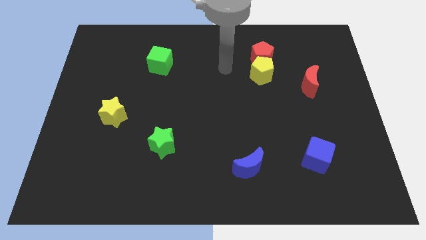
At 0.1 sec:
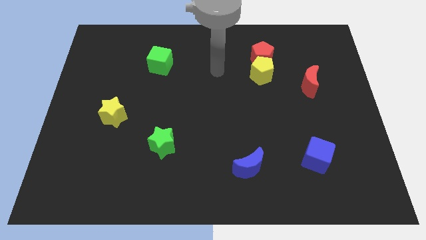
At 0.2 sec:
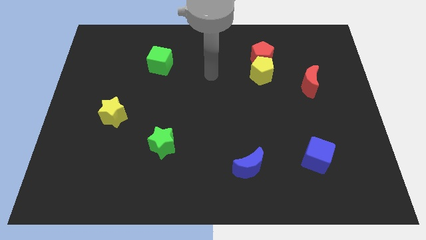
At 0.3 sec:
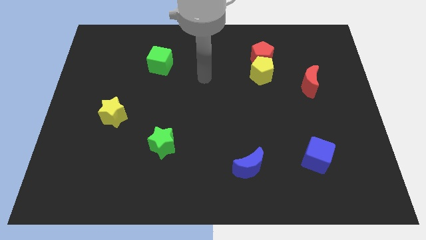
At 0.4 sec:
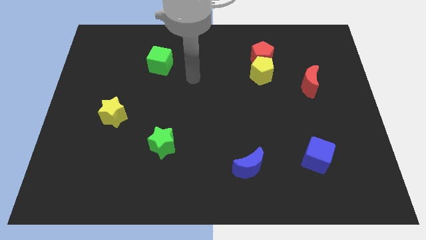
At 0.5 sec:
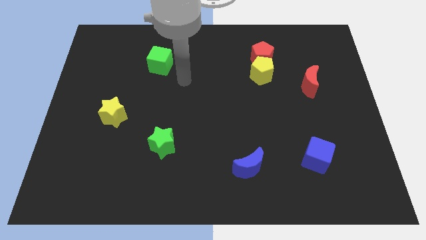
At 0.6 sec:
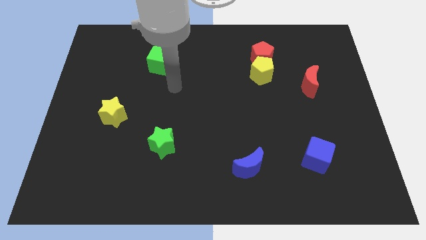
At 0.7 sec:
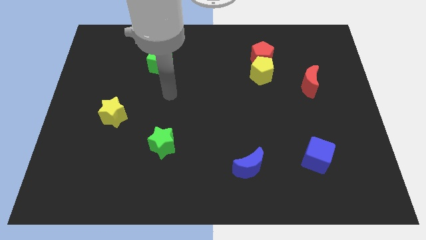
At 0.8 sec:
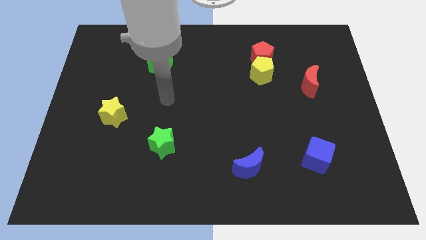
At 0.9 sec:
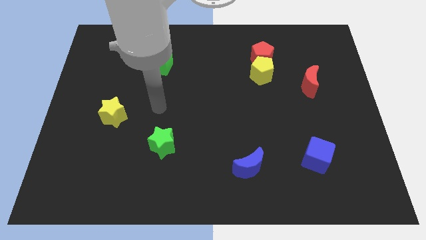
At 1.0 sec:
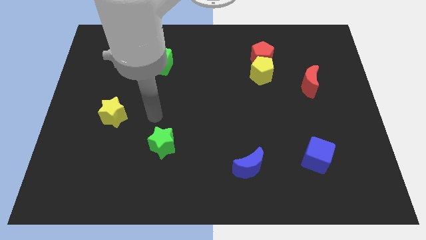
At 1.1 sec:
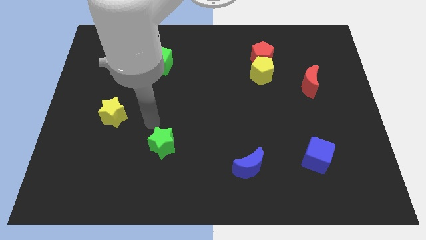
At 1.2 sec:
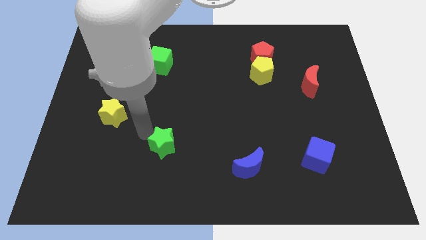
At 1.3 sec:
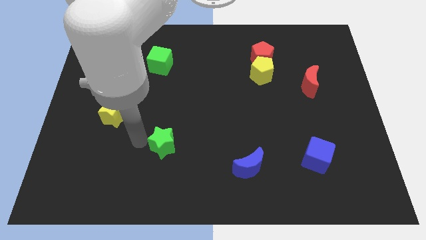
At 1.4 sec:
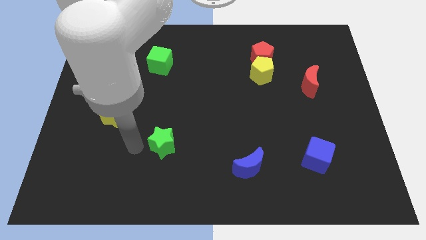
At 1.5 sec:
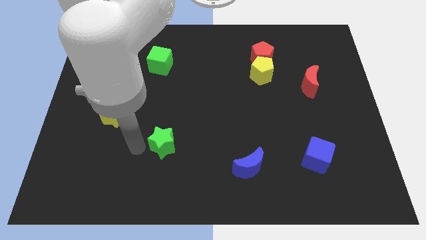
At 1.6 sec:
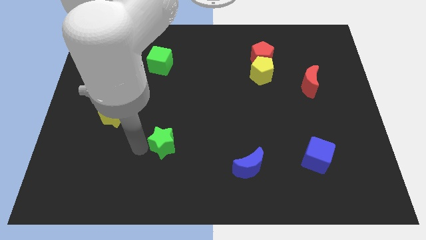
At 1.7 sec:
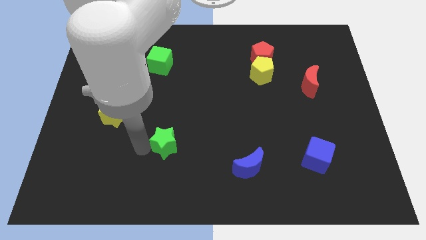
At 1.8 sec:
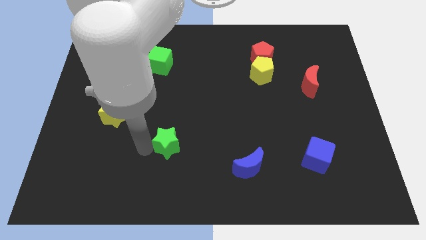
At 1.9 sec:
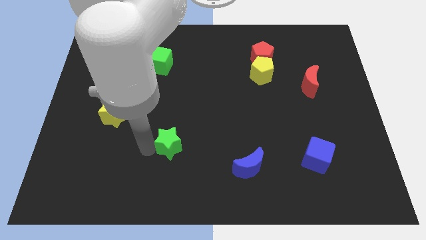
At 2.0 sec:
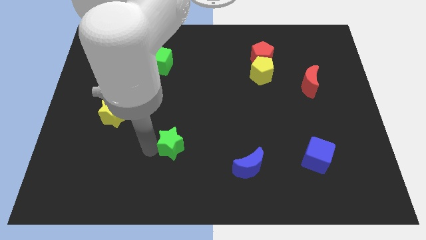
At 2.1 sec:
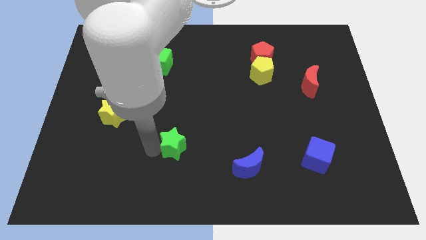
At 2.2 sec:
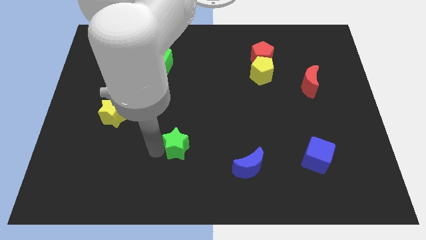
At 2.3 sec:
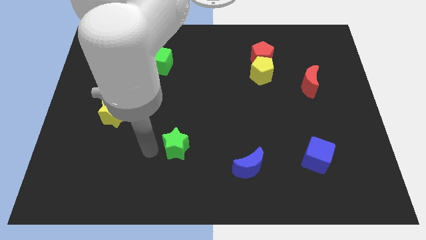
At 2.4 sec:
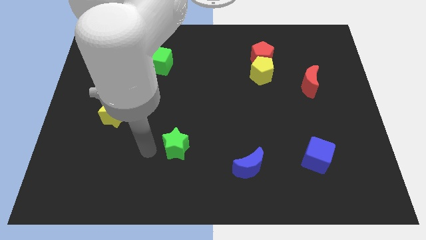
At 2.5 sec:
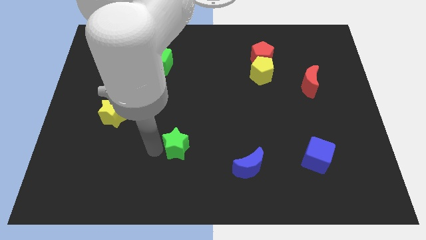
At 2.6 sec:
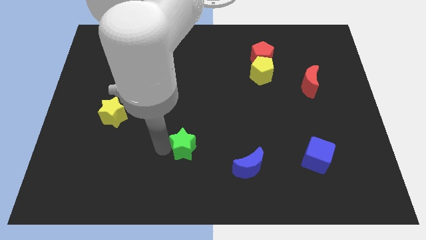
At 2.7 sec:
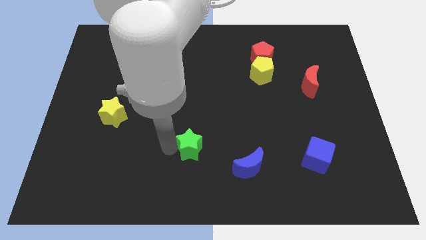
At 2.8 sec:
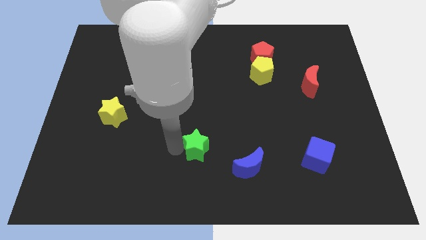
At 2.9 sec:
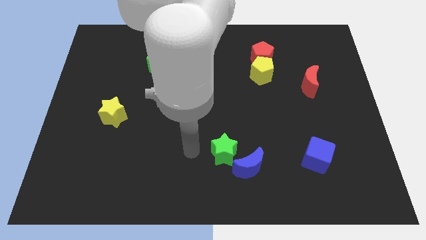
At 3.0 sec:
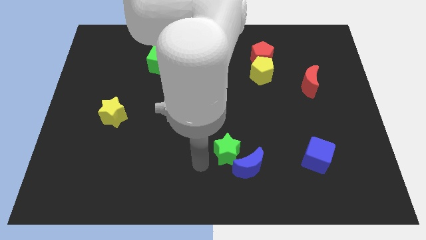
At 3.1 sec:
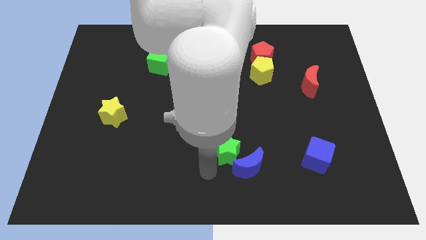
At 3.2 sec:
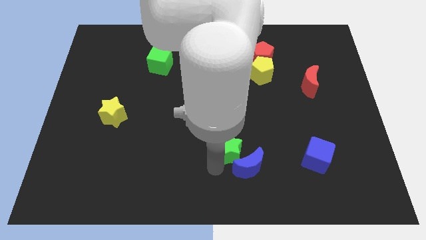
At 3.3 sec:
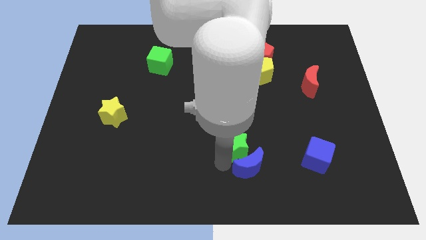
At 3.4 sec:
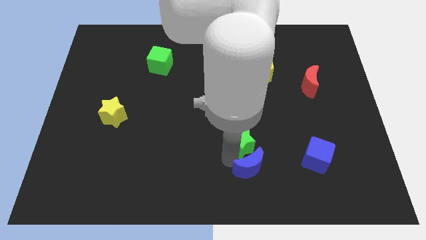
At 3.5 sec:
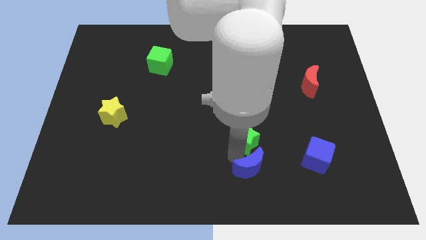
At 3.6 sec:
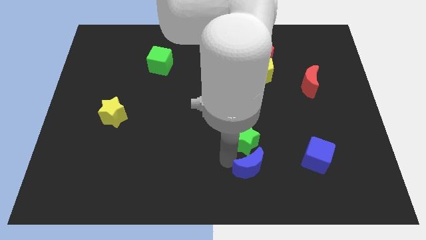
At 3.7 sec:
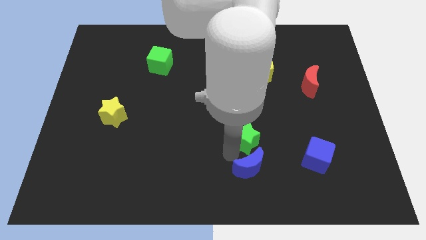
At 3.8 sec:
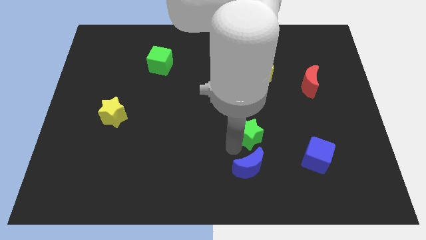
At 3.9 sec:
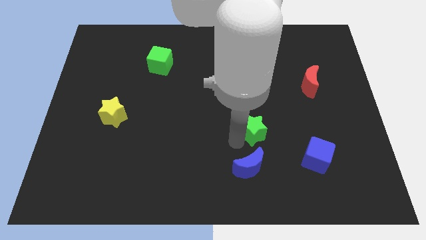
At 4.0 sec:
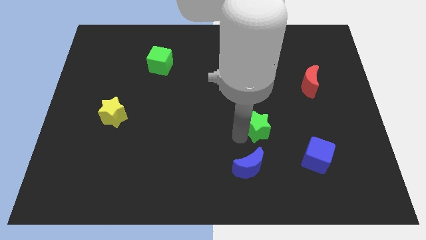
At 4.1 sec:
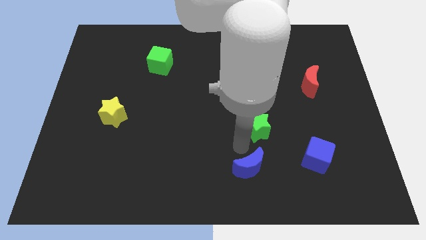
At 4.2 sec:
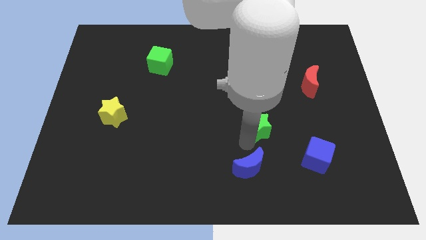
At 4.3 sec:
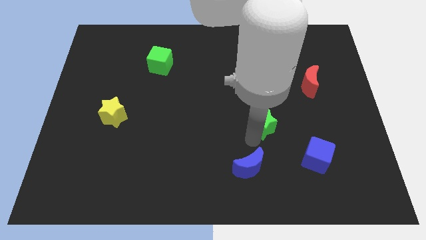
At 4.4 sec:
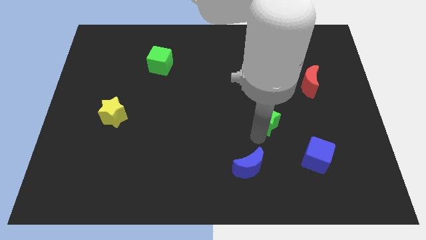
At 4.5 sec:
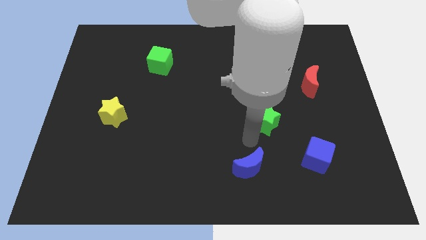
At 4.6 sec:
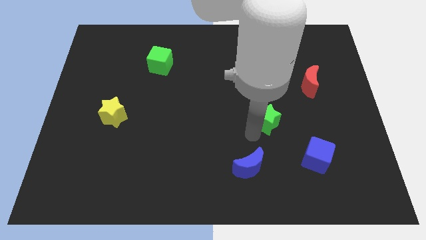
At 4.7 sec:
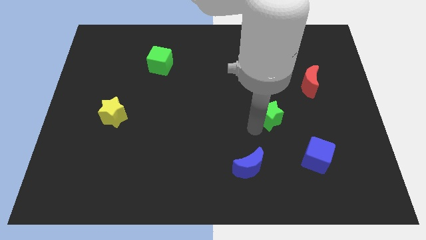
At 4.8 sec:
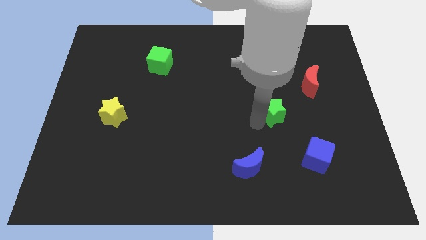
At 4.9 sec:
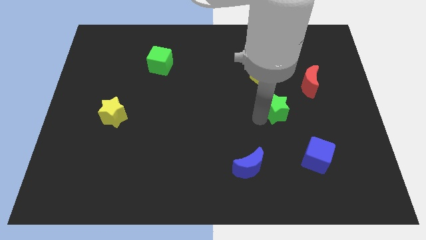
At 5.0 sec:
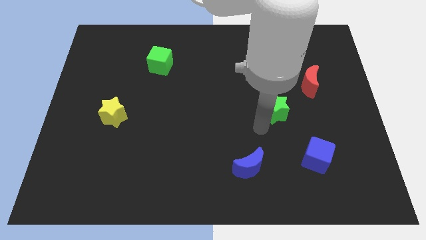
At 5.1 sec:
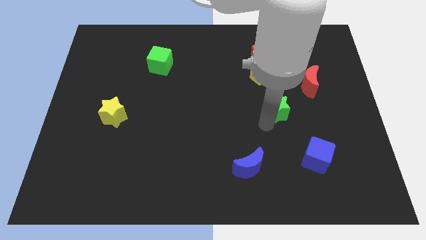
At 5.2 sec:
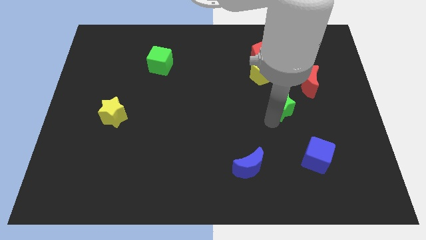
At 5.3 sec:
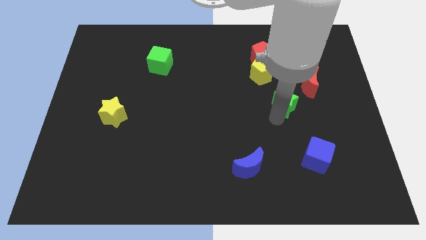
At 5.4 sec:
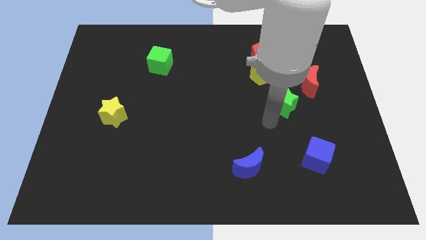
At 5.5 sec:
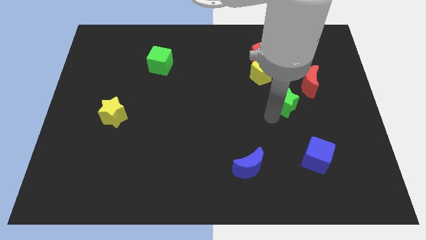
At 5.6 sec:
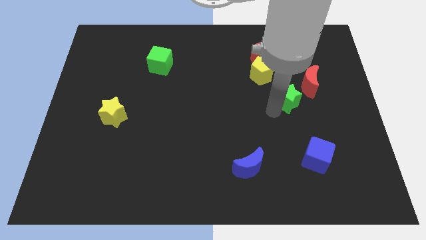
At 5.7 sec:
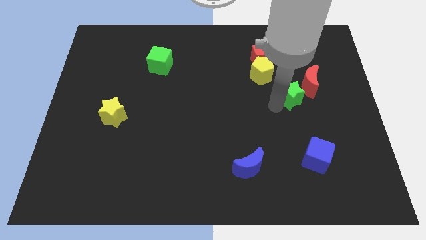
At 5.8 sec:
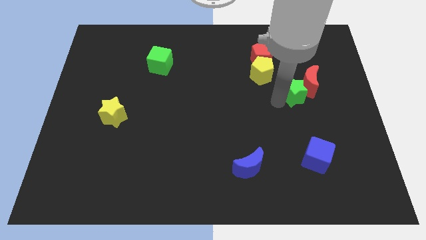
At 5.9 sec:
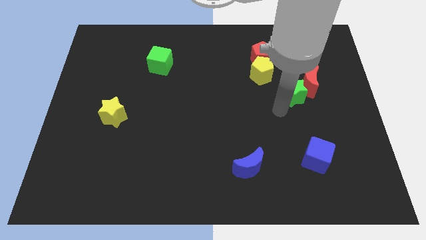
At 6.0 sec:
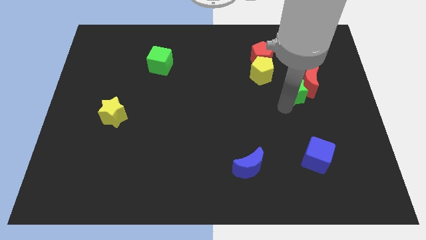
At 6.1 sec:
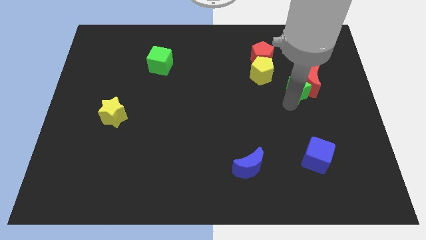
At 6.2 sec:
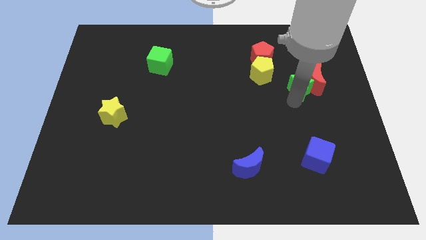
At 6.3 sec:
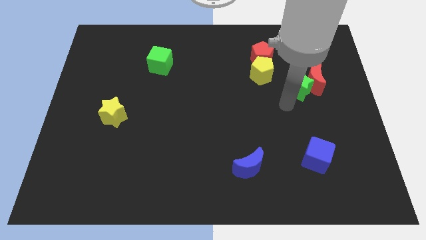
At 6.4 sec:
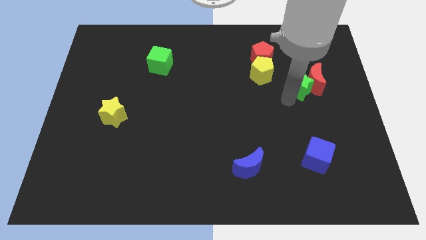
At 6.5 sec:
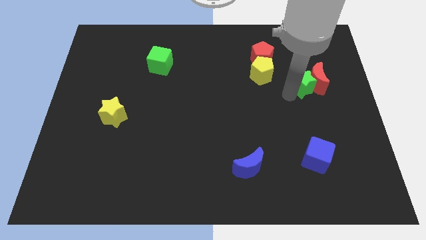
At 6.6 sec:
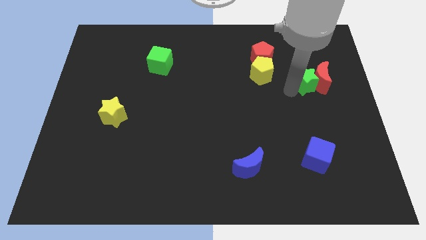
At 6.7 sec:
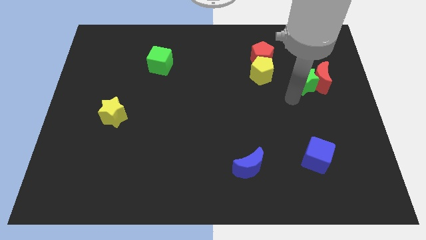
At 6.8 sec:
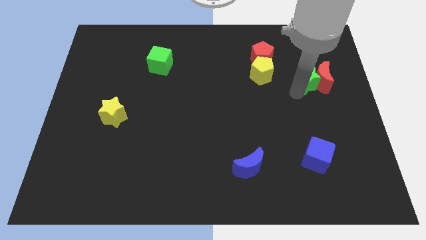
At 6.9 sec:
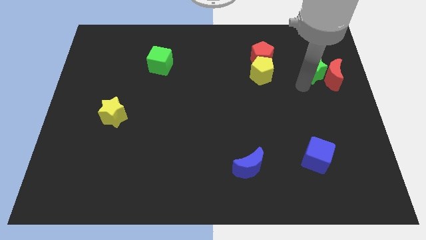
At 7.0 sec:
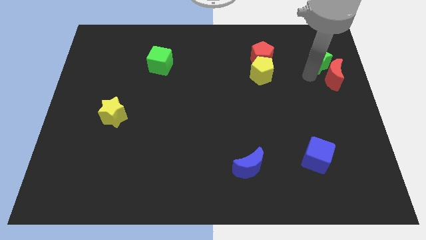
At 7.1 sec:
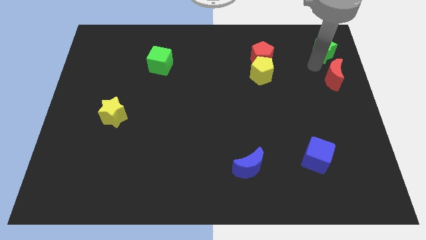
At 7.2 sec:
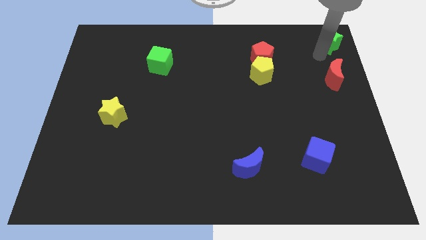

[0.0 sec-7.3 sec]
push the green star to the top right corner
